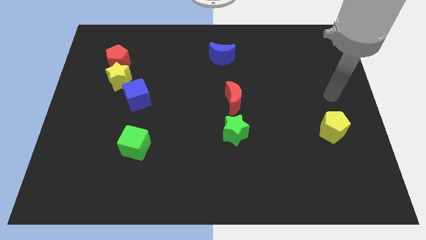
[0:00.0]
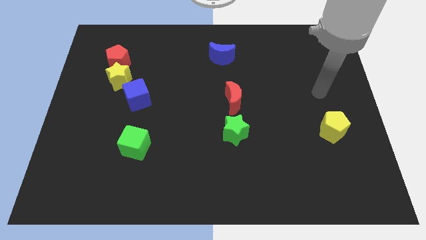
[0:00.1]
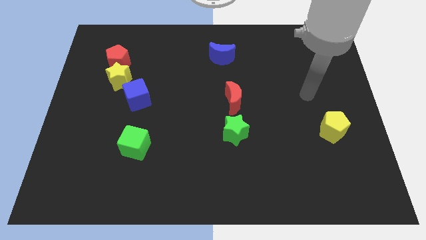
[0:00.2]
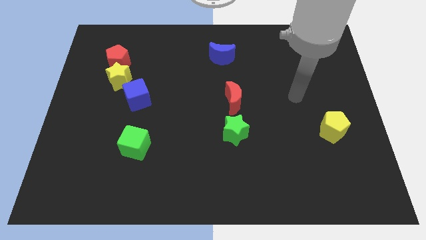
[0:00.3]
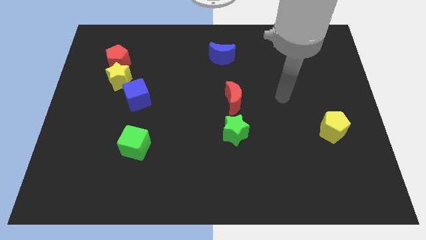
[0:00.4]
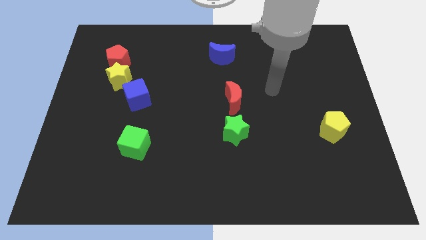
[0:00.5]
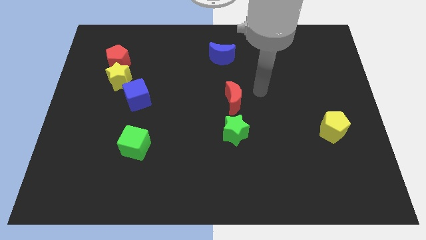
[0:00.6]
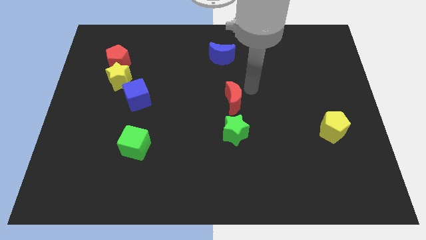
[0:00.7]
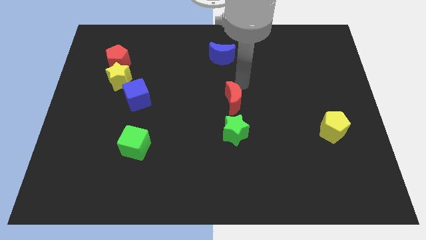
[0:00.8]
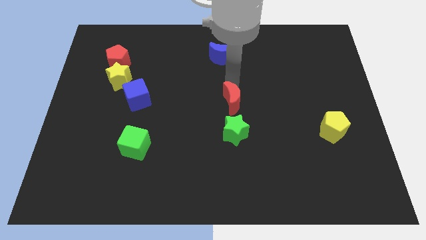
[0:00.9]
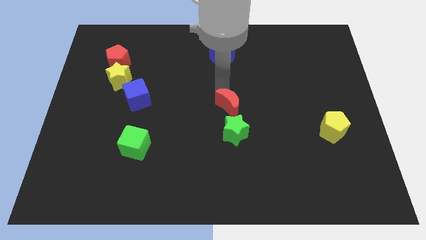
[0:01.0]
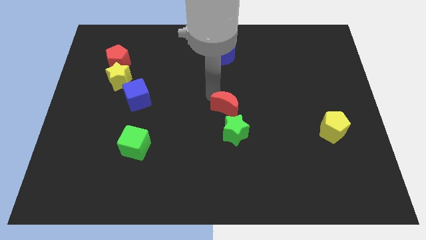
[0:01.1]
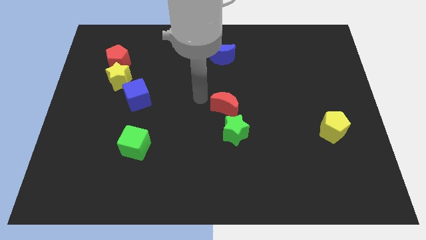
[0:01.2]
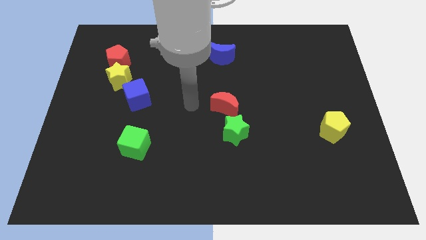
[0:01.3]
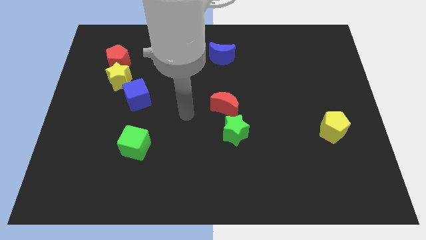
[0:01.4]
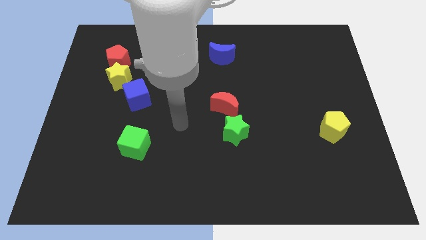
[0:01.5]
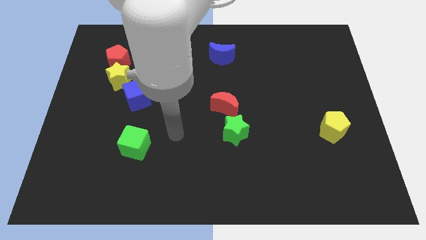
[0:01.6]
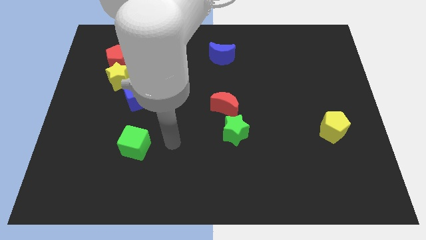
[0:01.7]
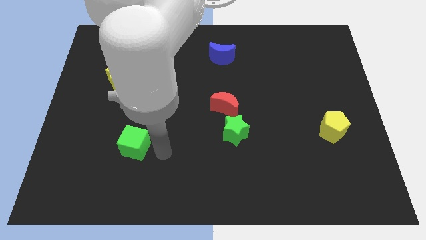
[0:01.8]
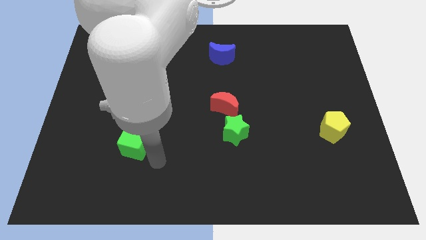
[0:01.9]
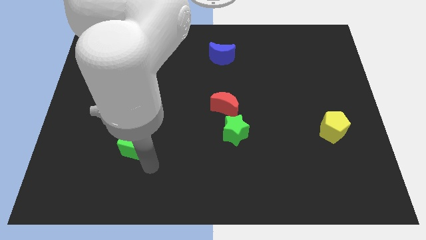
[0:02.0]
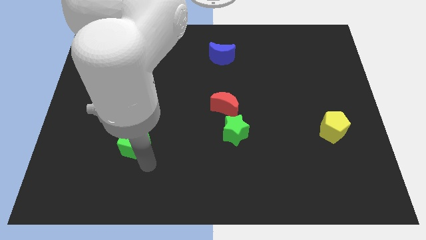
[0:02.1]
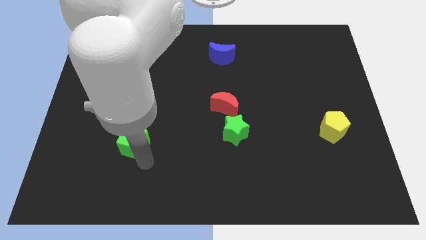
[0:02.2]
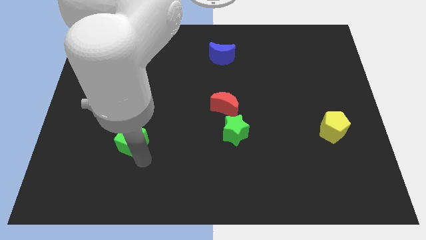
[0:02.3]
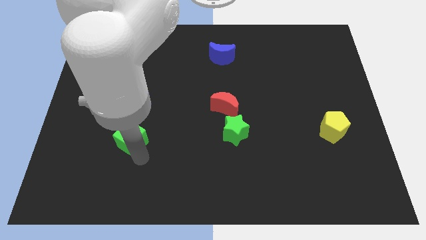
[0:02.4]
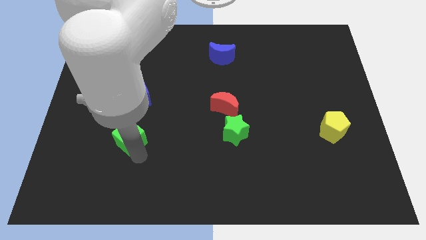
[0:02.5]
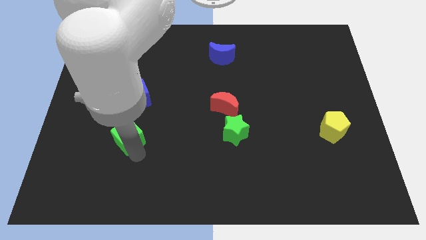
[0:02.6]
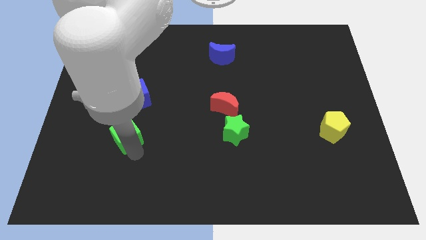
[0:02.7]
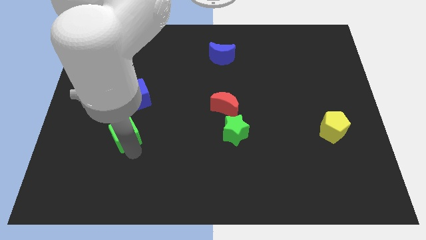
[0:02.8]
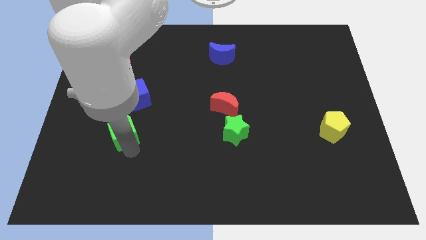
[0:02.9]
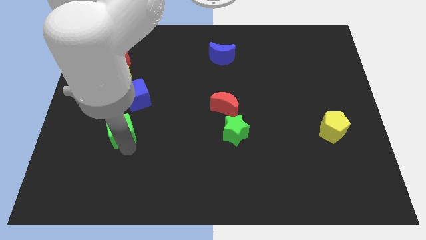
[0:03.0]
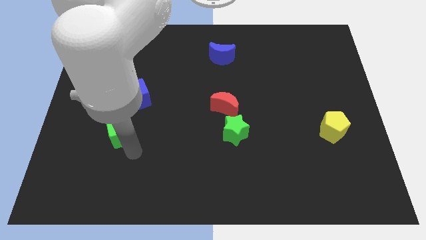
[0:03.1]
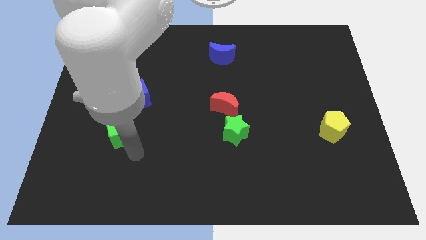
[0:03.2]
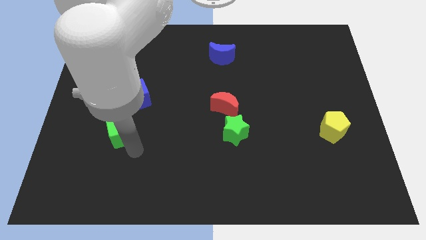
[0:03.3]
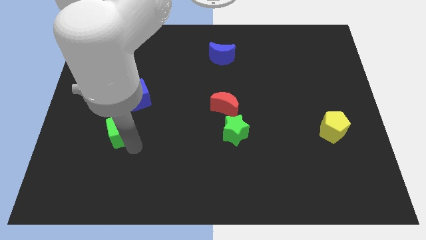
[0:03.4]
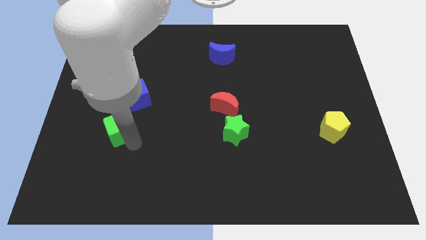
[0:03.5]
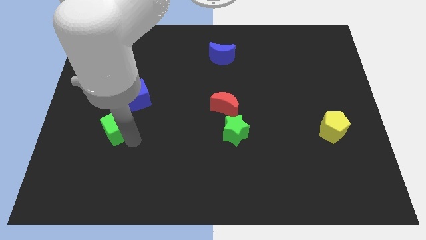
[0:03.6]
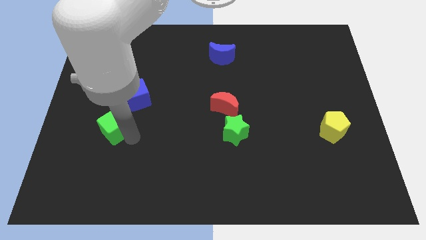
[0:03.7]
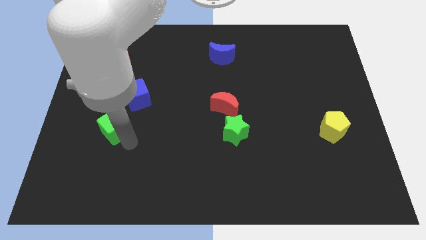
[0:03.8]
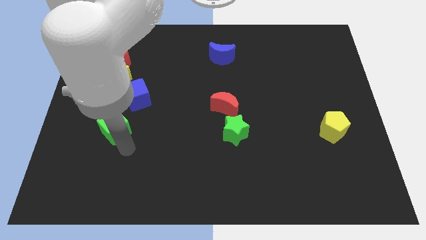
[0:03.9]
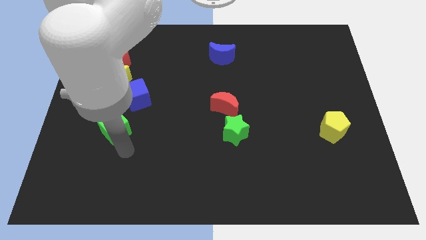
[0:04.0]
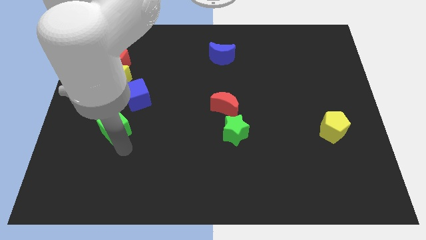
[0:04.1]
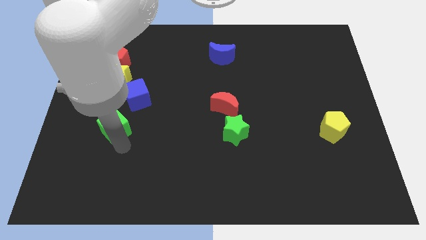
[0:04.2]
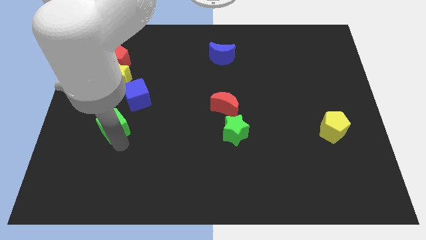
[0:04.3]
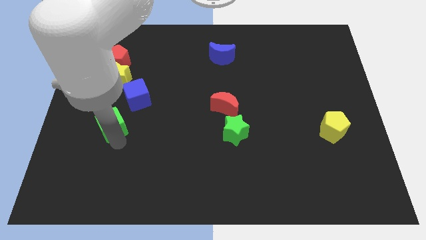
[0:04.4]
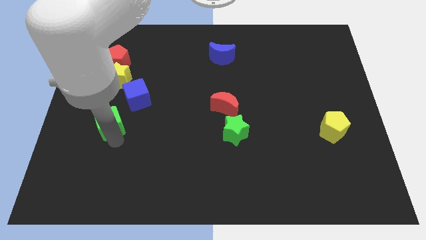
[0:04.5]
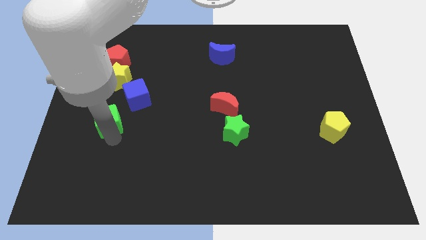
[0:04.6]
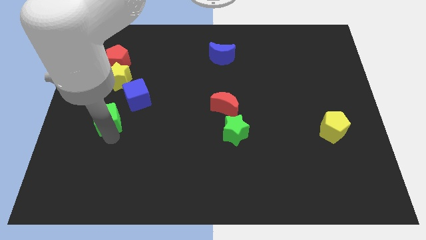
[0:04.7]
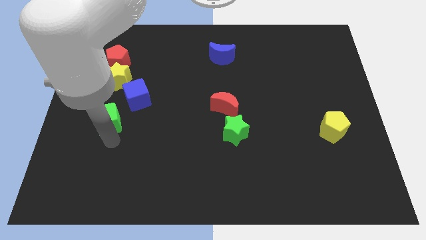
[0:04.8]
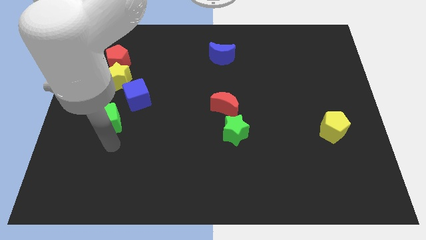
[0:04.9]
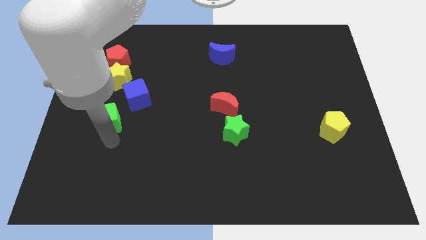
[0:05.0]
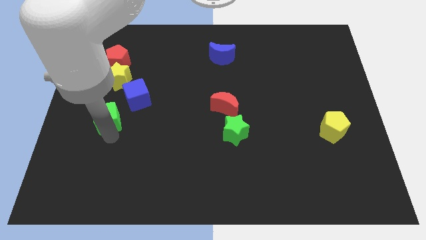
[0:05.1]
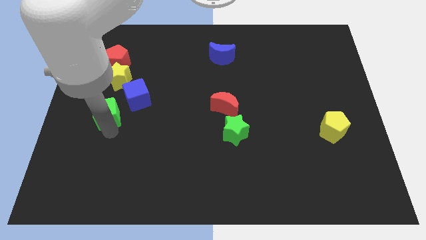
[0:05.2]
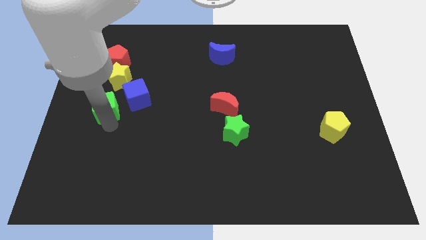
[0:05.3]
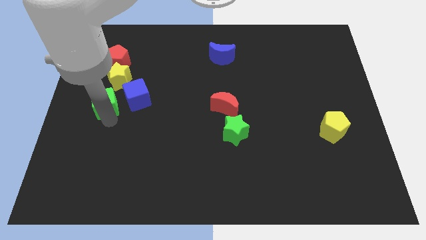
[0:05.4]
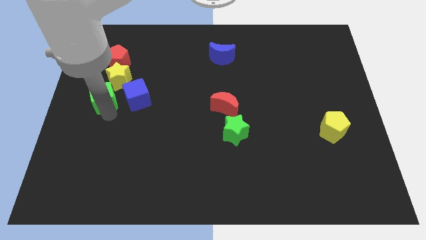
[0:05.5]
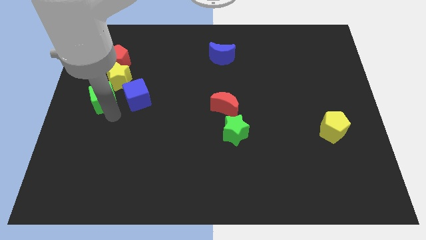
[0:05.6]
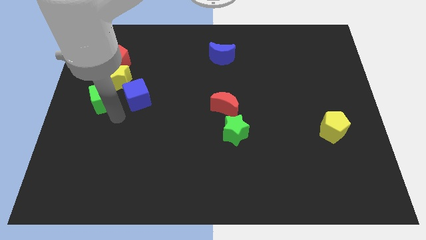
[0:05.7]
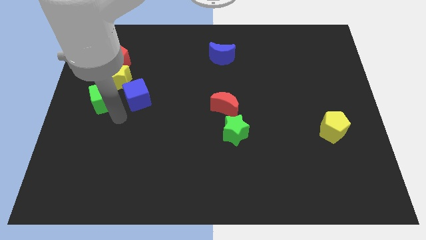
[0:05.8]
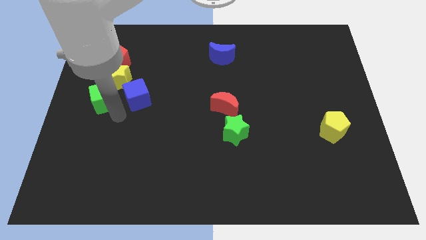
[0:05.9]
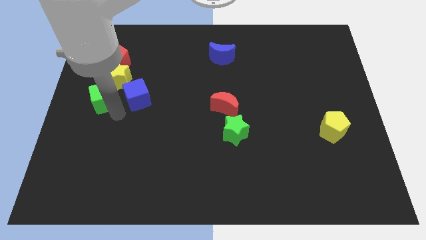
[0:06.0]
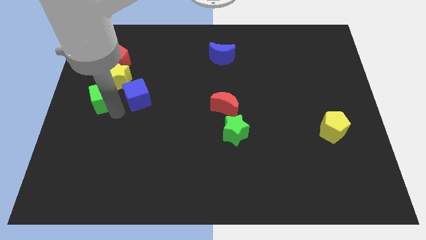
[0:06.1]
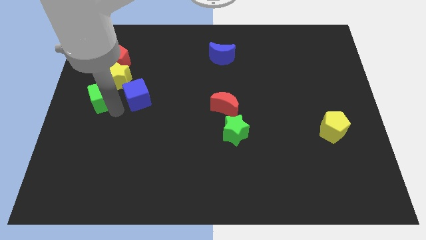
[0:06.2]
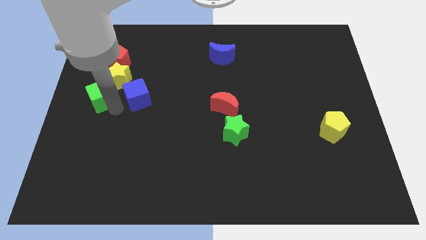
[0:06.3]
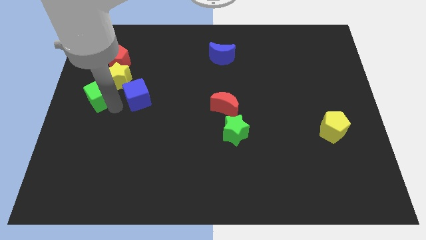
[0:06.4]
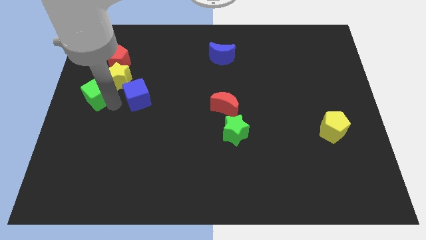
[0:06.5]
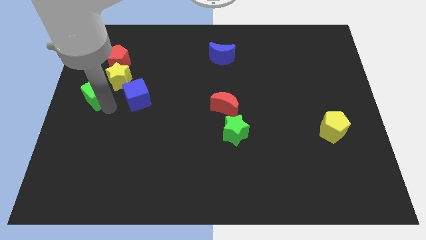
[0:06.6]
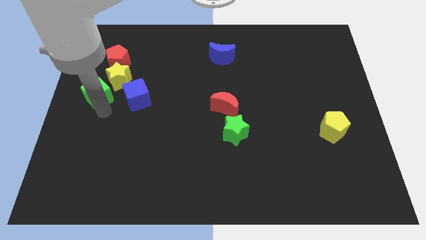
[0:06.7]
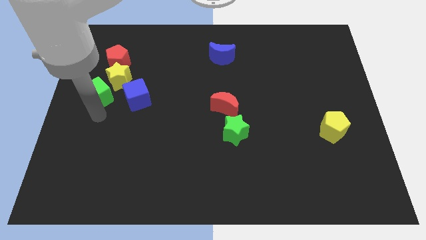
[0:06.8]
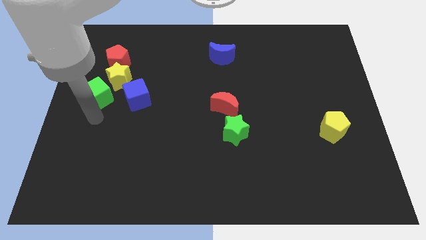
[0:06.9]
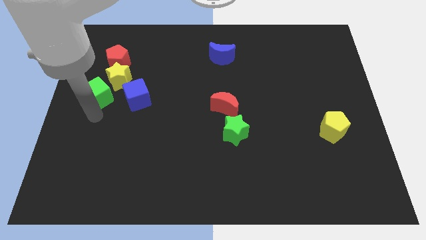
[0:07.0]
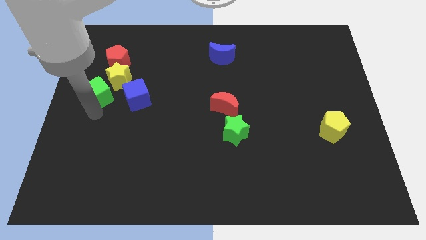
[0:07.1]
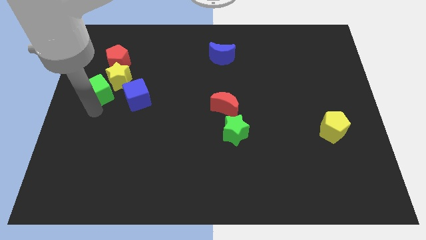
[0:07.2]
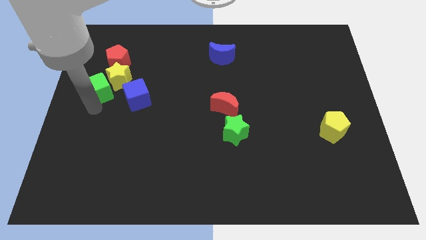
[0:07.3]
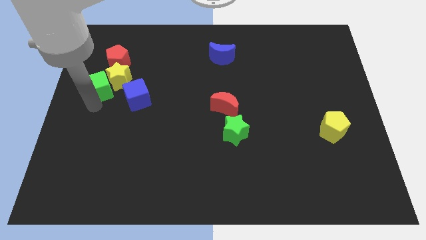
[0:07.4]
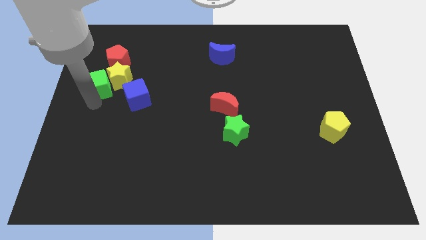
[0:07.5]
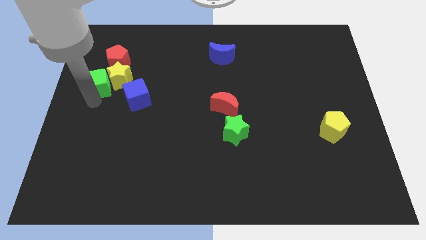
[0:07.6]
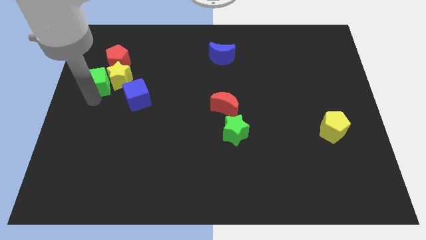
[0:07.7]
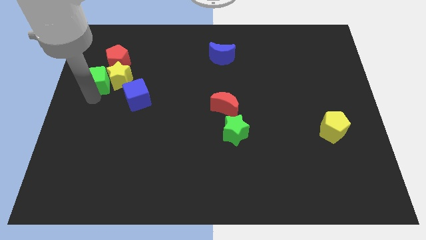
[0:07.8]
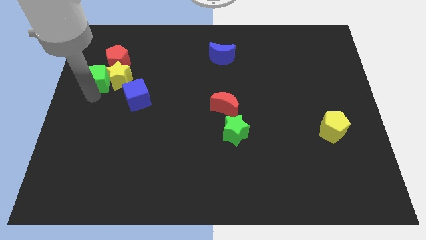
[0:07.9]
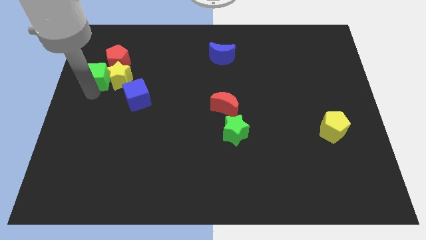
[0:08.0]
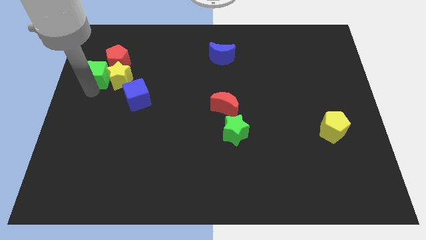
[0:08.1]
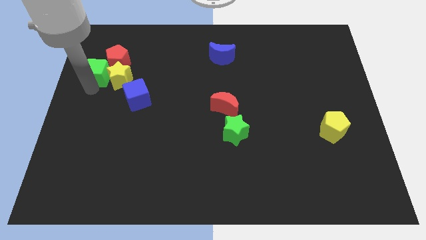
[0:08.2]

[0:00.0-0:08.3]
slide the green cube close to the red pentagon
